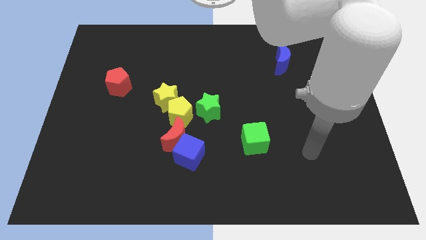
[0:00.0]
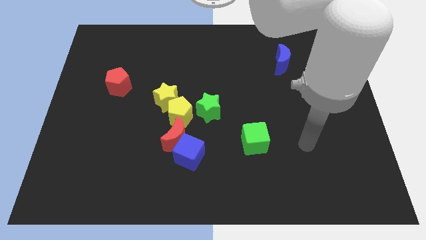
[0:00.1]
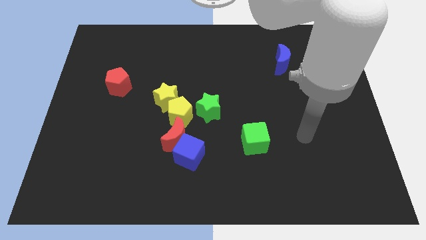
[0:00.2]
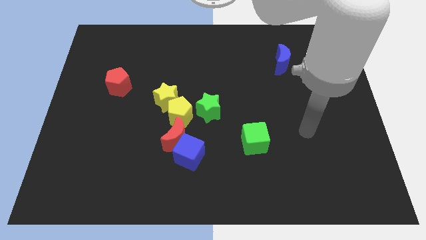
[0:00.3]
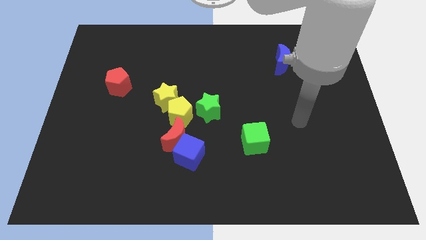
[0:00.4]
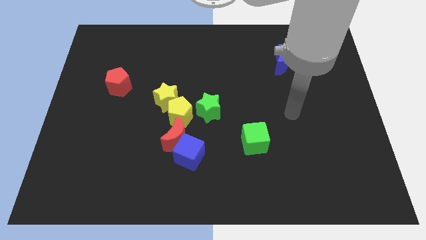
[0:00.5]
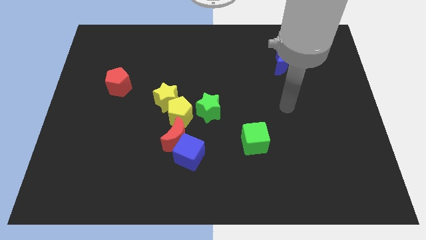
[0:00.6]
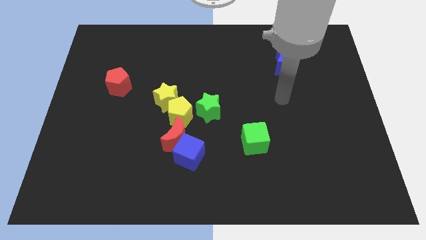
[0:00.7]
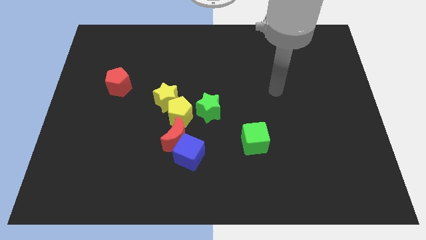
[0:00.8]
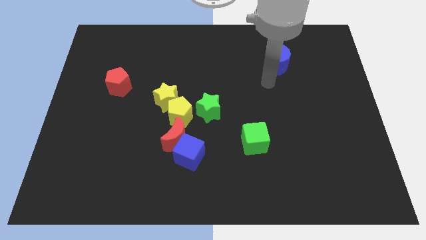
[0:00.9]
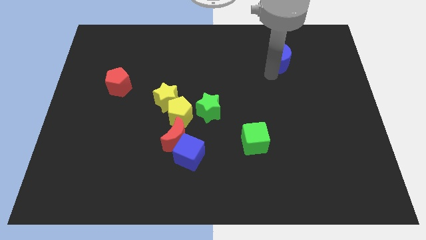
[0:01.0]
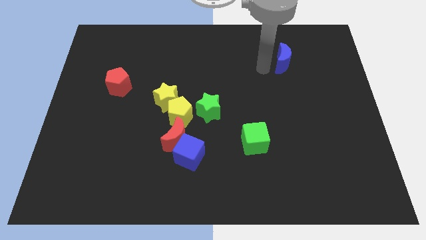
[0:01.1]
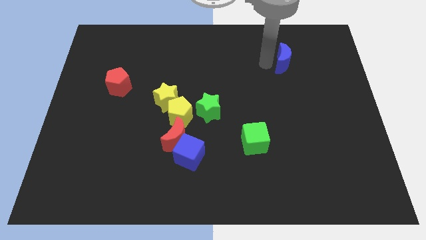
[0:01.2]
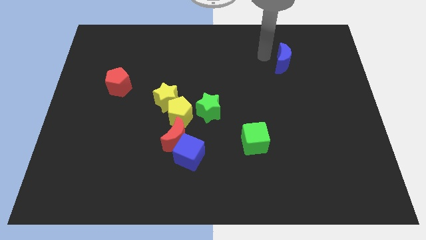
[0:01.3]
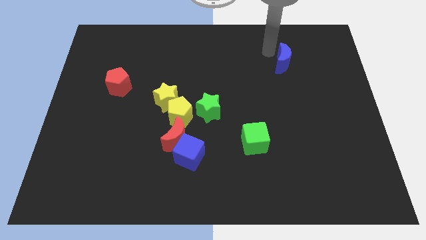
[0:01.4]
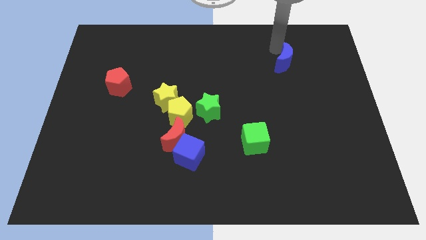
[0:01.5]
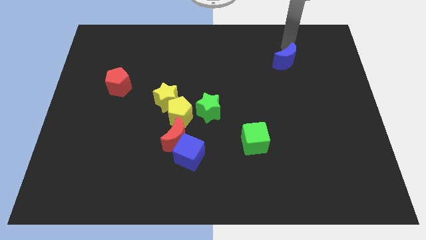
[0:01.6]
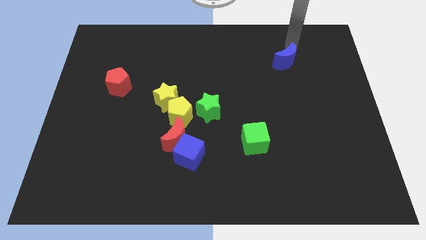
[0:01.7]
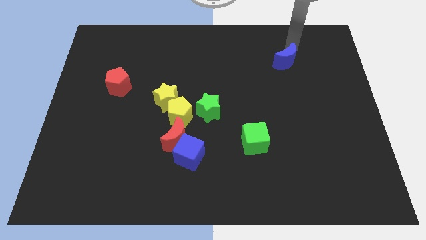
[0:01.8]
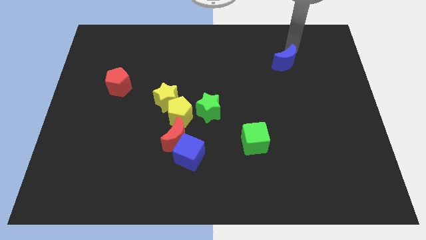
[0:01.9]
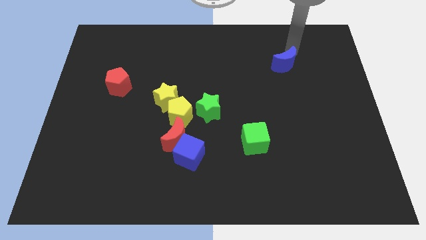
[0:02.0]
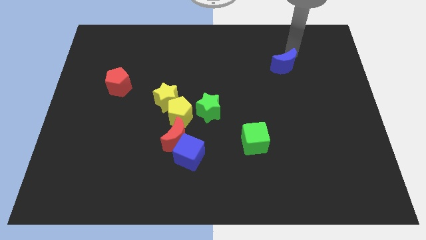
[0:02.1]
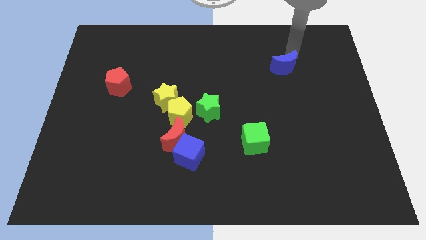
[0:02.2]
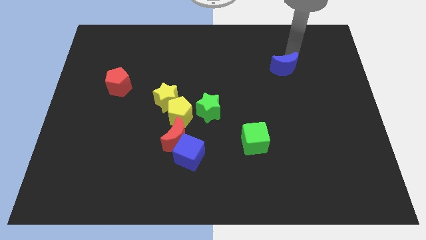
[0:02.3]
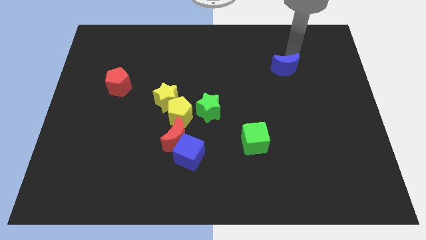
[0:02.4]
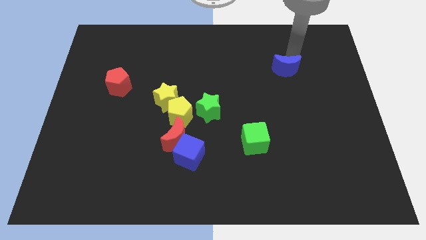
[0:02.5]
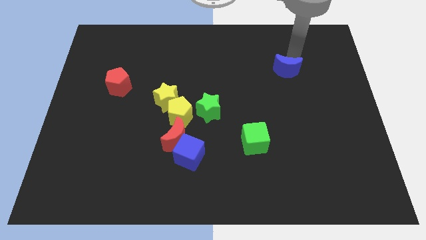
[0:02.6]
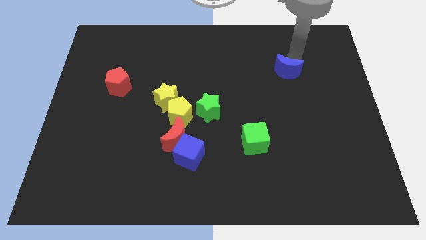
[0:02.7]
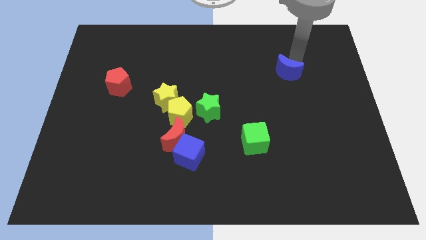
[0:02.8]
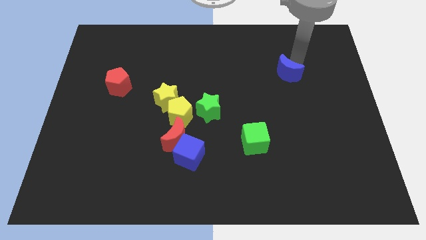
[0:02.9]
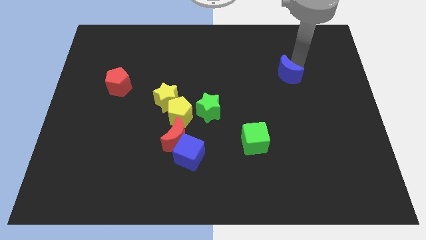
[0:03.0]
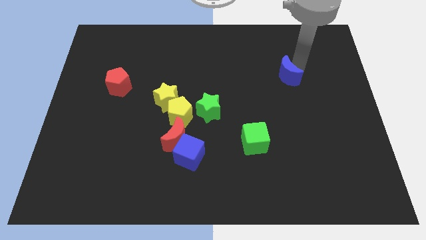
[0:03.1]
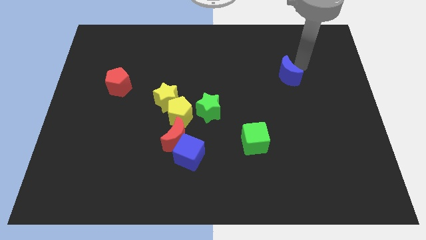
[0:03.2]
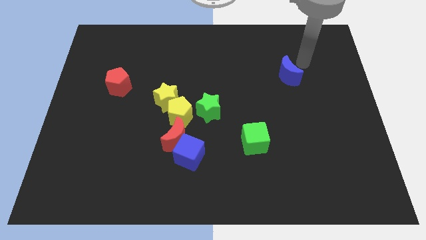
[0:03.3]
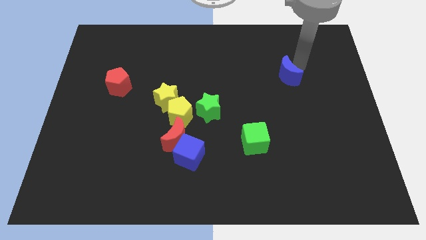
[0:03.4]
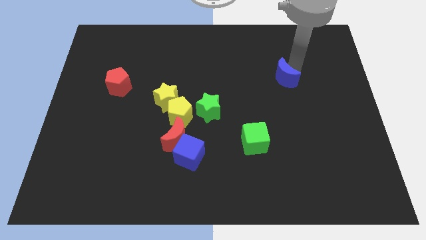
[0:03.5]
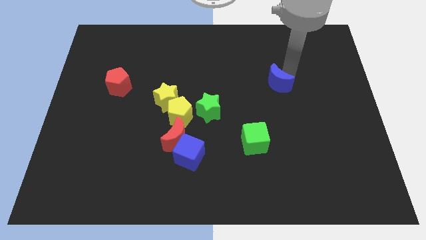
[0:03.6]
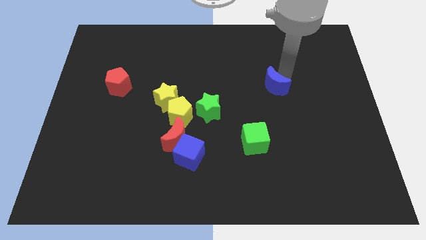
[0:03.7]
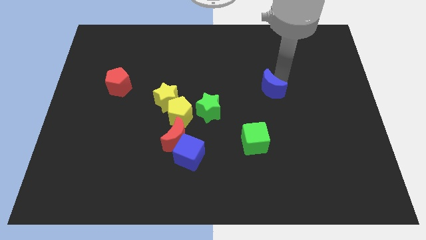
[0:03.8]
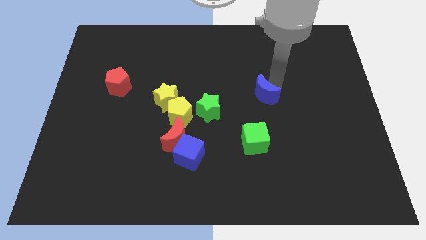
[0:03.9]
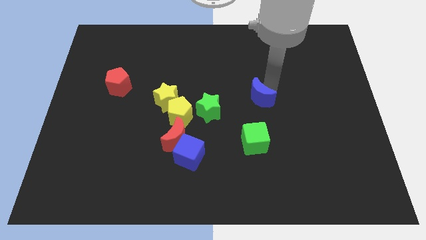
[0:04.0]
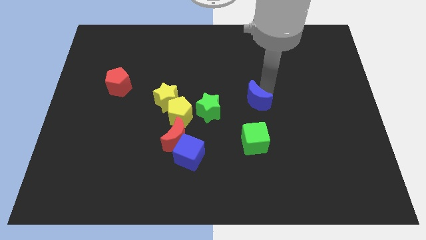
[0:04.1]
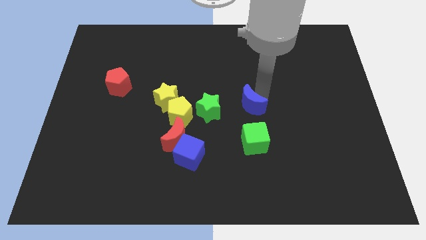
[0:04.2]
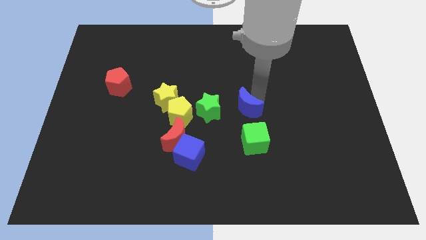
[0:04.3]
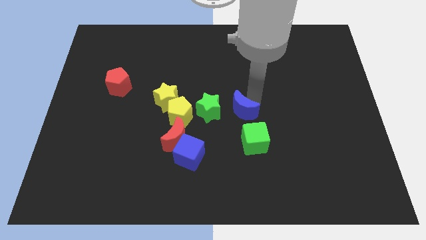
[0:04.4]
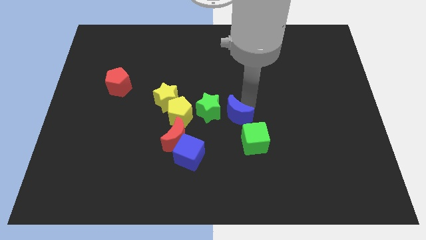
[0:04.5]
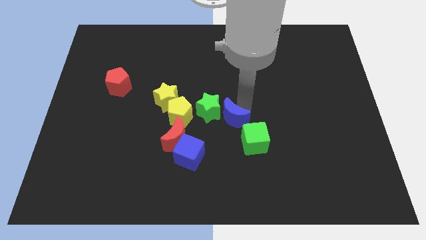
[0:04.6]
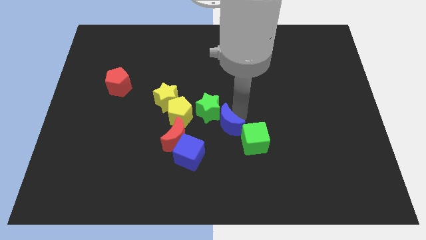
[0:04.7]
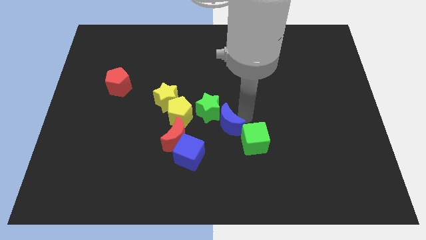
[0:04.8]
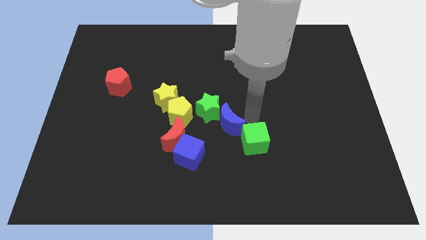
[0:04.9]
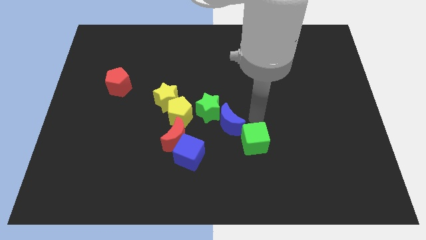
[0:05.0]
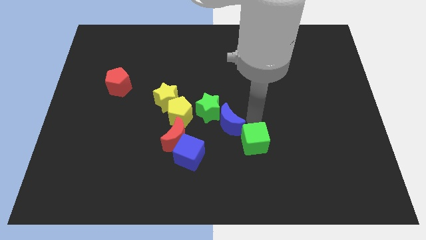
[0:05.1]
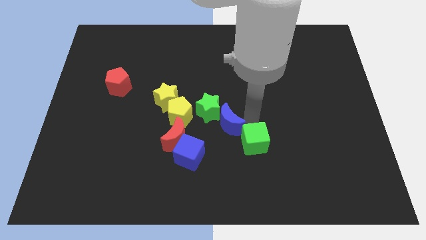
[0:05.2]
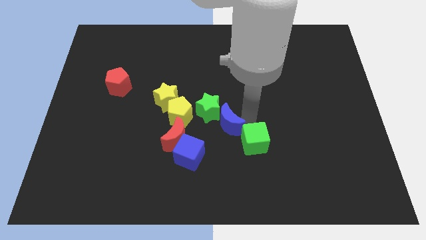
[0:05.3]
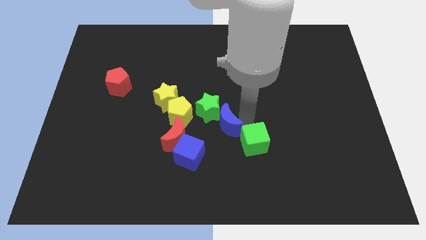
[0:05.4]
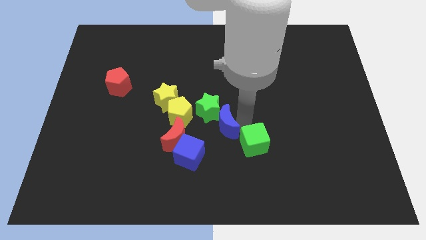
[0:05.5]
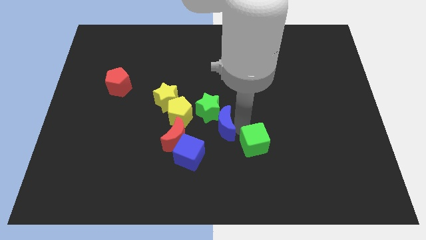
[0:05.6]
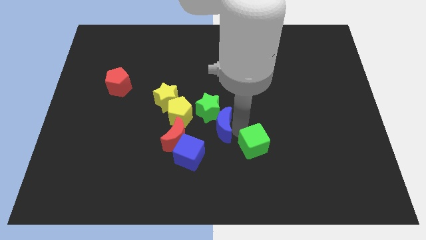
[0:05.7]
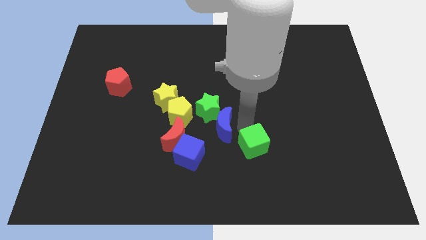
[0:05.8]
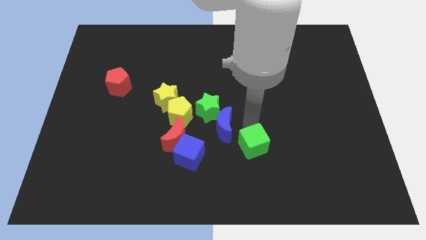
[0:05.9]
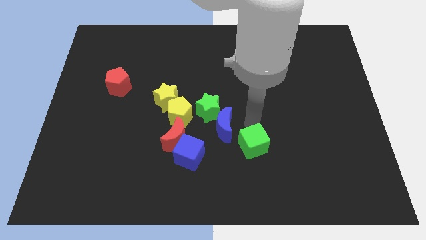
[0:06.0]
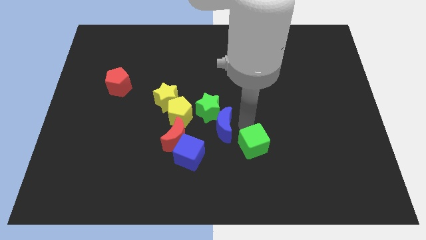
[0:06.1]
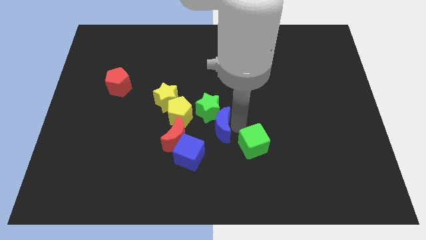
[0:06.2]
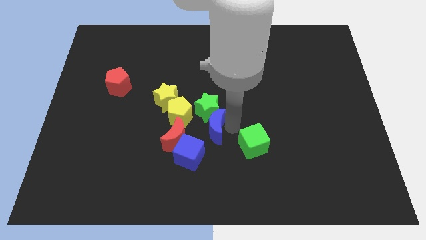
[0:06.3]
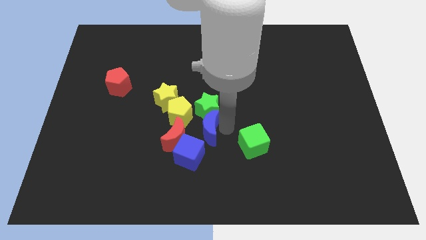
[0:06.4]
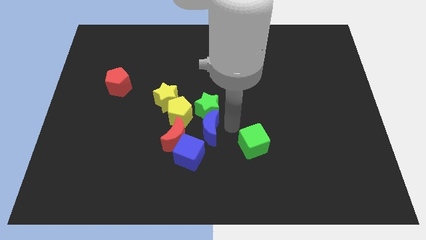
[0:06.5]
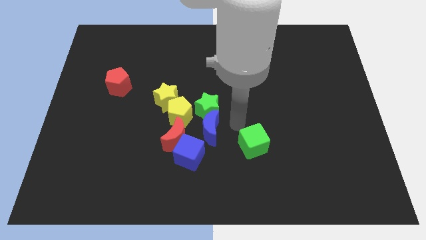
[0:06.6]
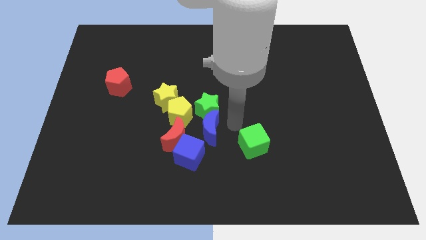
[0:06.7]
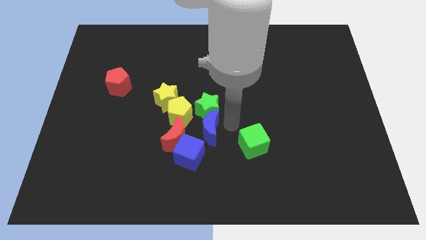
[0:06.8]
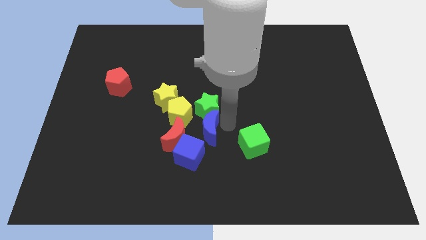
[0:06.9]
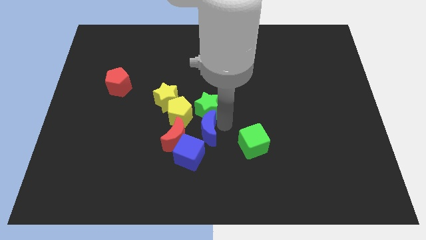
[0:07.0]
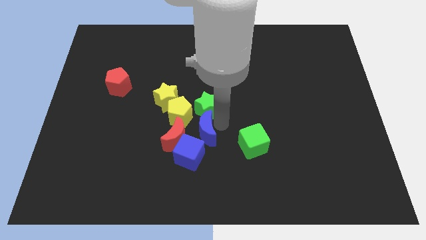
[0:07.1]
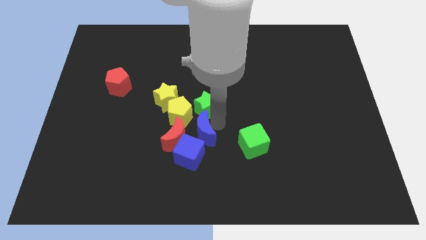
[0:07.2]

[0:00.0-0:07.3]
push the blue moon towards the red moon

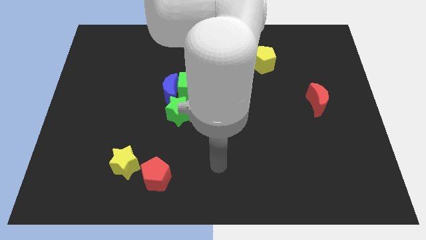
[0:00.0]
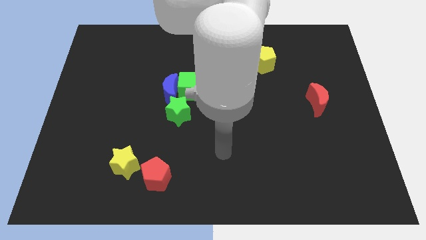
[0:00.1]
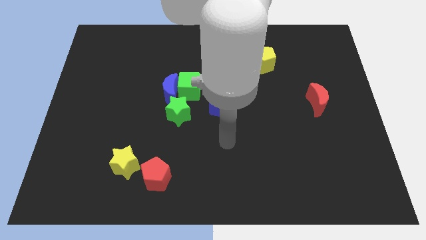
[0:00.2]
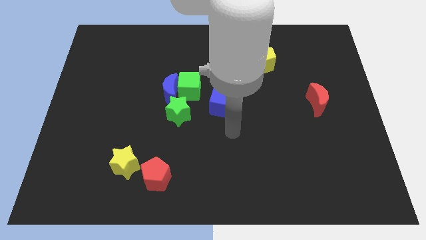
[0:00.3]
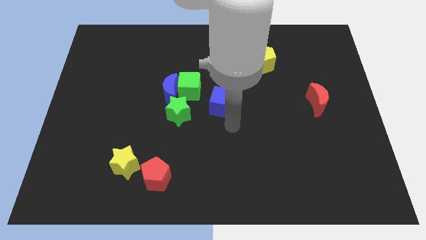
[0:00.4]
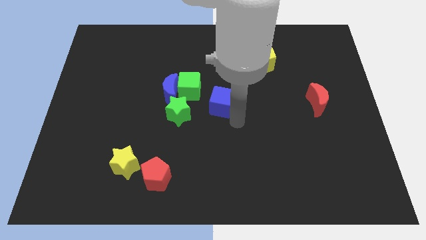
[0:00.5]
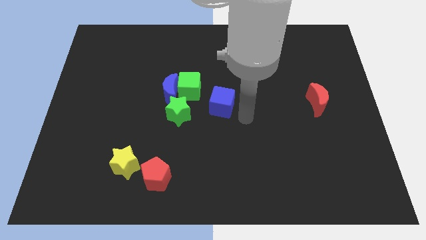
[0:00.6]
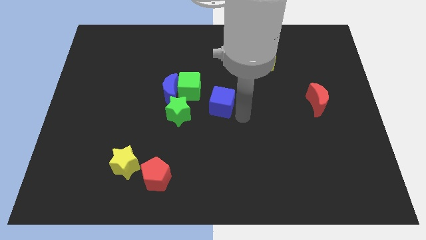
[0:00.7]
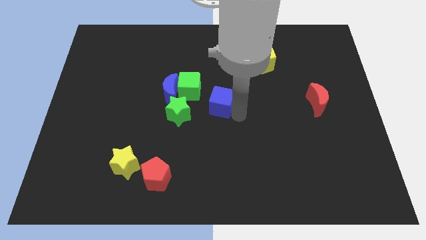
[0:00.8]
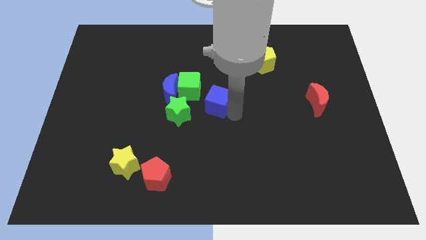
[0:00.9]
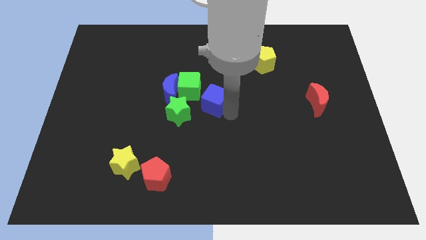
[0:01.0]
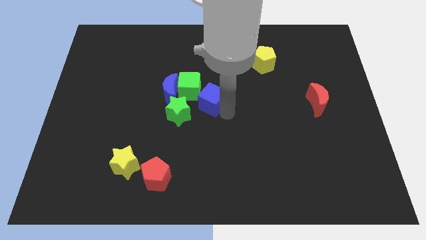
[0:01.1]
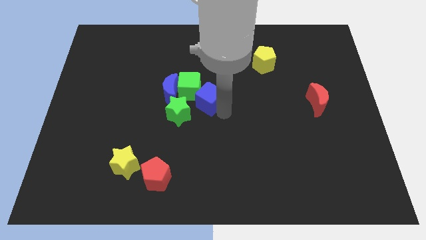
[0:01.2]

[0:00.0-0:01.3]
put the blue cube to the green cube
